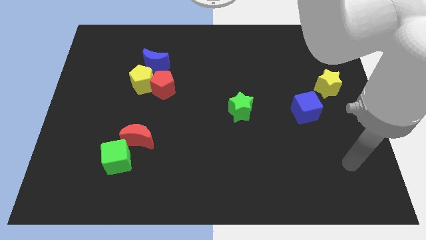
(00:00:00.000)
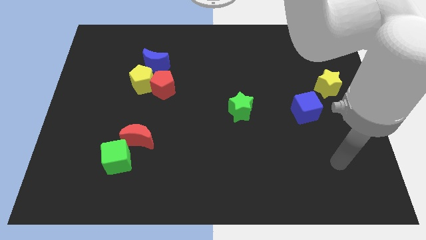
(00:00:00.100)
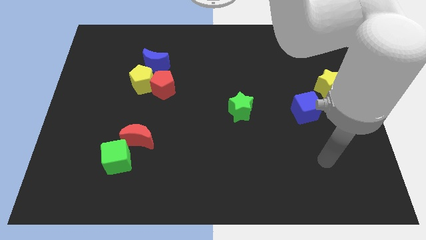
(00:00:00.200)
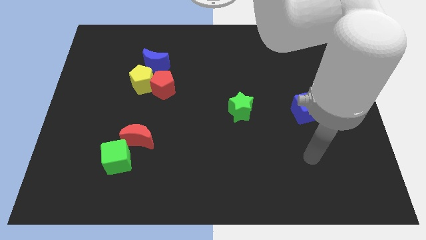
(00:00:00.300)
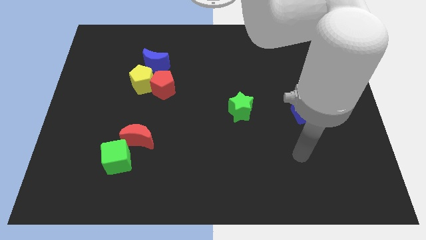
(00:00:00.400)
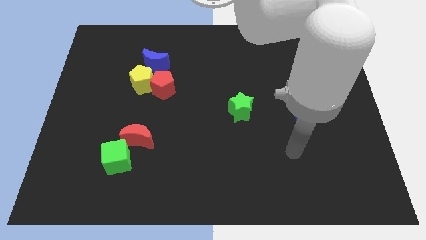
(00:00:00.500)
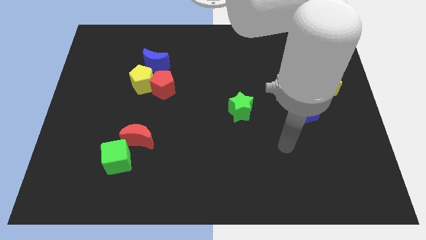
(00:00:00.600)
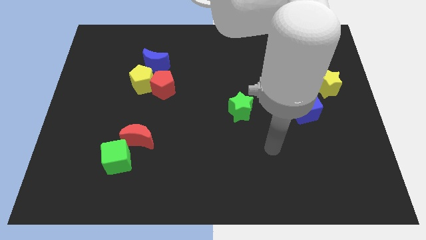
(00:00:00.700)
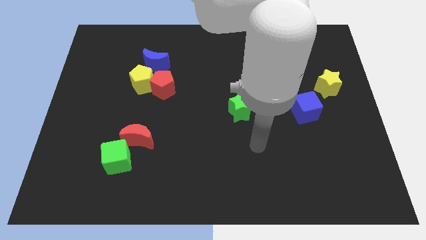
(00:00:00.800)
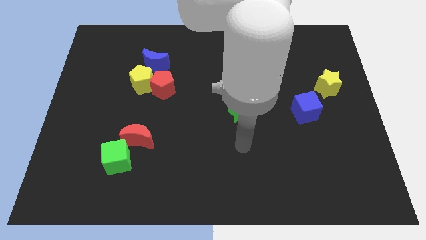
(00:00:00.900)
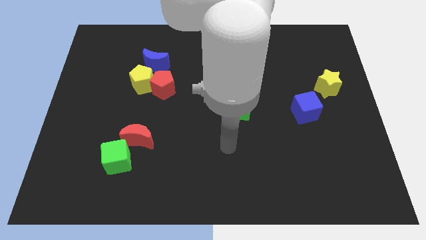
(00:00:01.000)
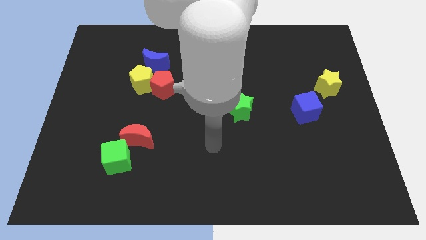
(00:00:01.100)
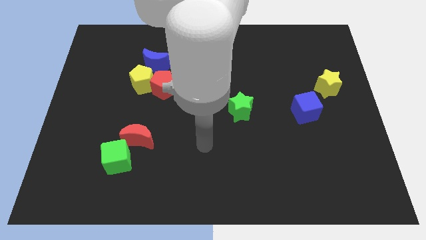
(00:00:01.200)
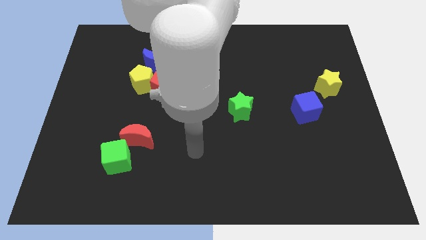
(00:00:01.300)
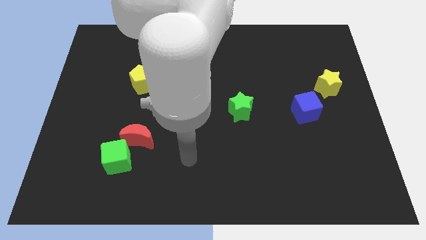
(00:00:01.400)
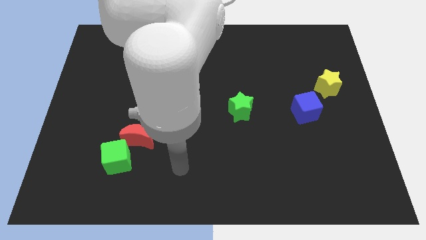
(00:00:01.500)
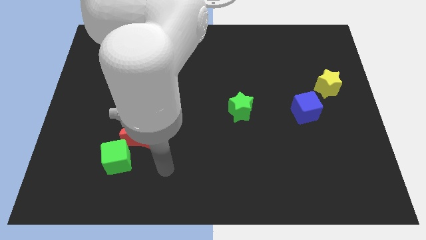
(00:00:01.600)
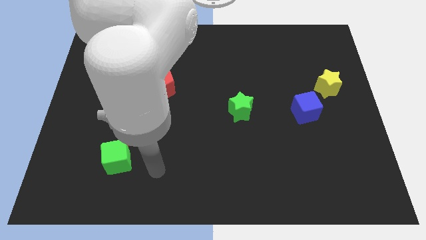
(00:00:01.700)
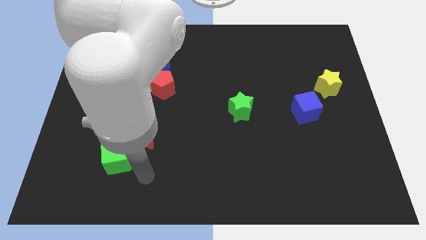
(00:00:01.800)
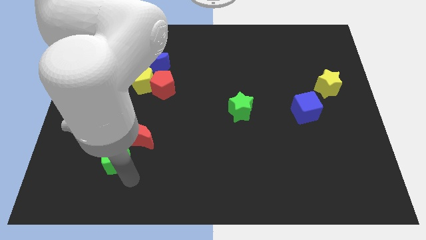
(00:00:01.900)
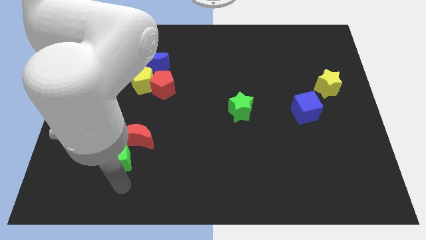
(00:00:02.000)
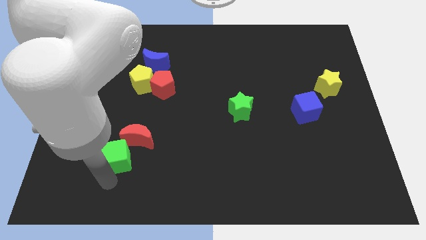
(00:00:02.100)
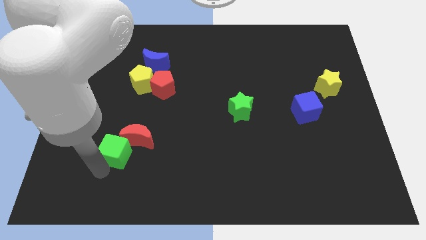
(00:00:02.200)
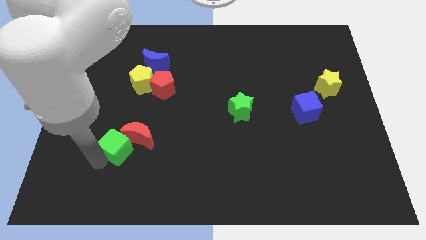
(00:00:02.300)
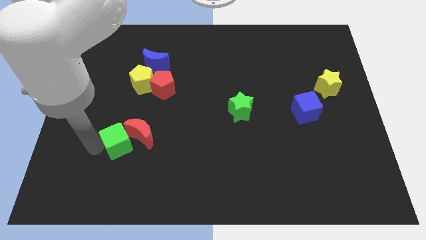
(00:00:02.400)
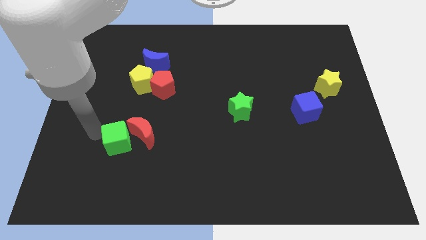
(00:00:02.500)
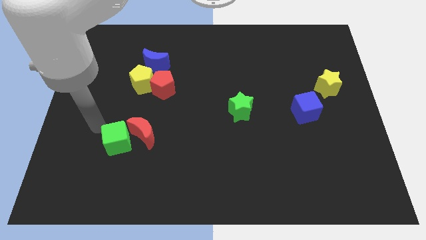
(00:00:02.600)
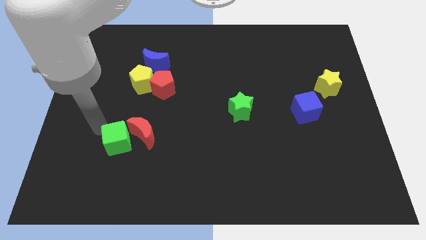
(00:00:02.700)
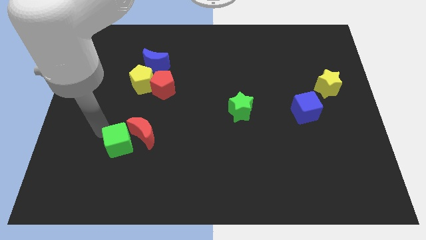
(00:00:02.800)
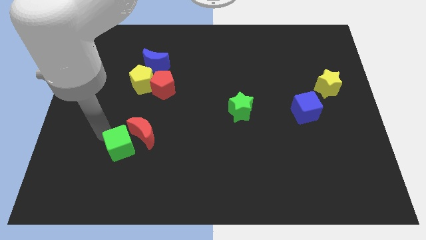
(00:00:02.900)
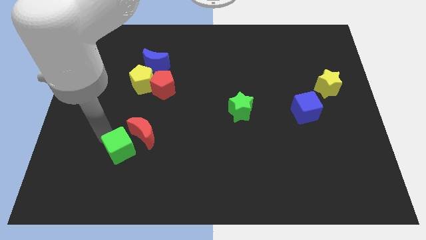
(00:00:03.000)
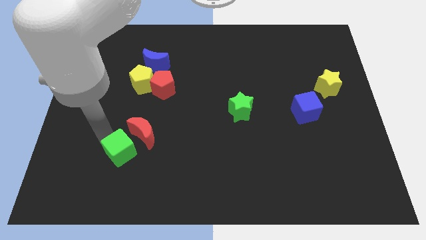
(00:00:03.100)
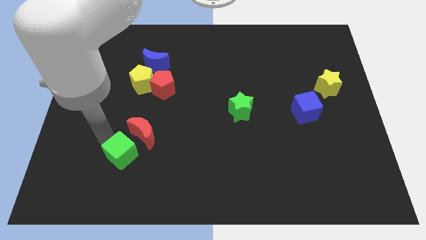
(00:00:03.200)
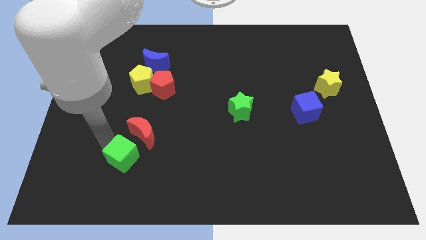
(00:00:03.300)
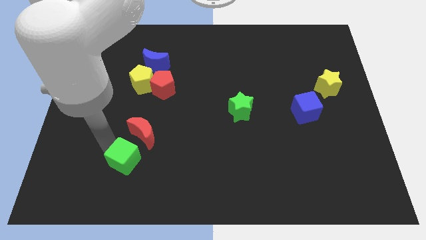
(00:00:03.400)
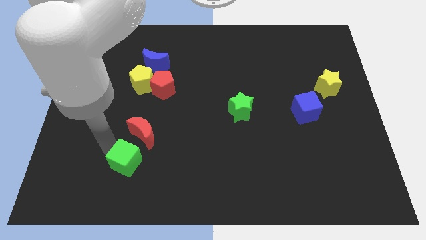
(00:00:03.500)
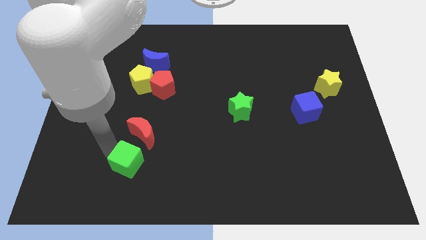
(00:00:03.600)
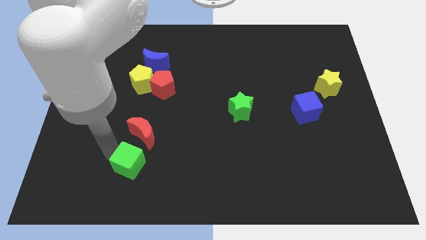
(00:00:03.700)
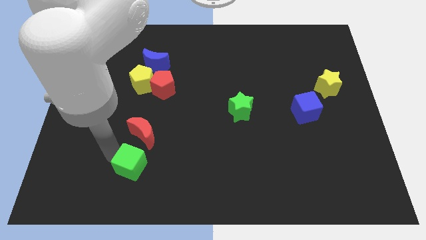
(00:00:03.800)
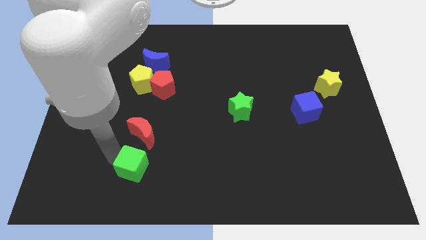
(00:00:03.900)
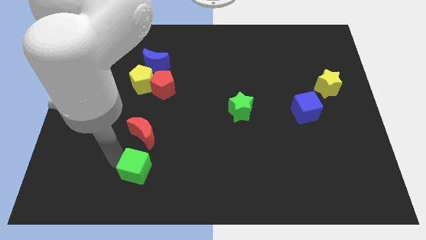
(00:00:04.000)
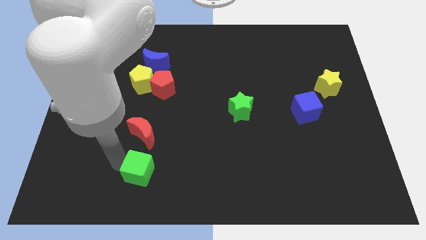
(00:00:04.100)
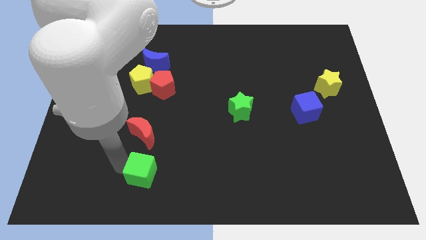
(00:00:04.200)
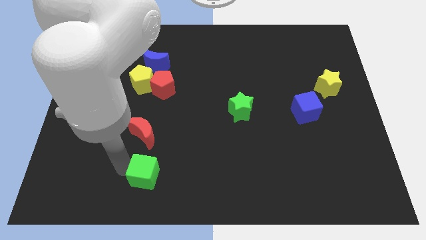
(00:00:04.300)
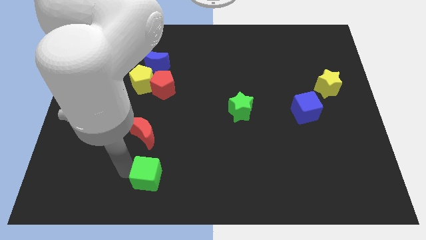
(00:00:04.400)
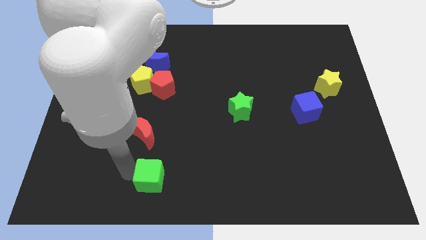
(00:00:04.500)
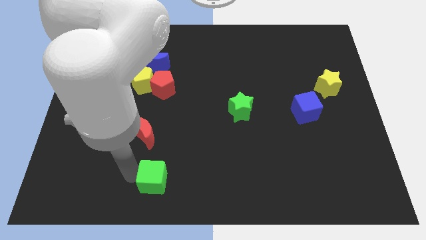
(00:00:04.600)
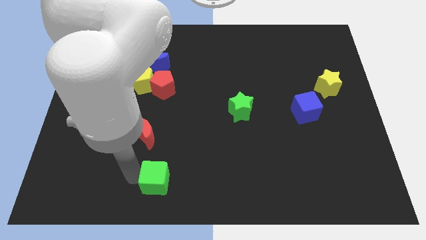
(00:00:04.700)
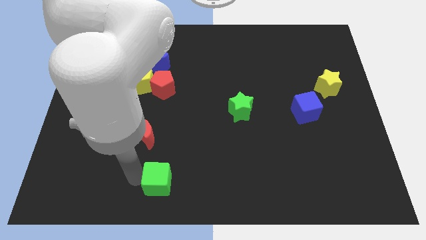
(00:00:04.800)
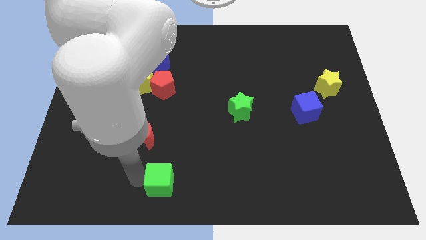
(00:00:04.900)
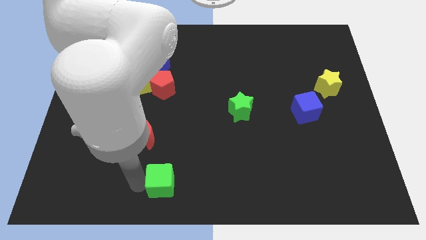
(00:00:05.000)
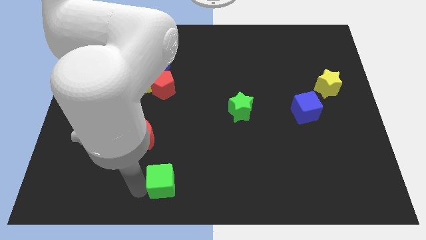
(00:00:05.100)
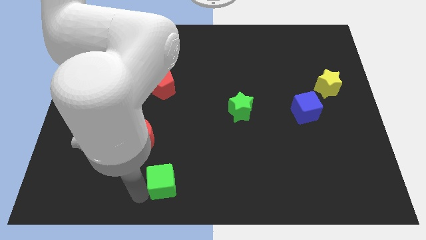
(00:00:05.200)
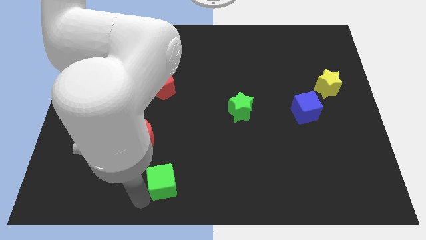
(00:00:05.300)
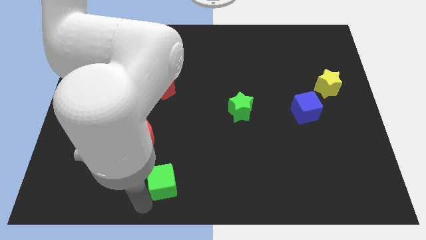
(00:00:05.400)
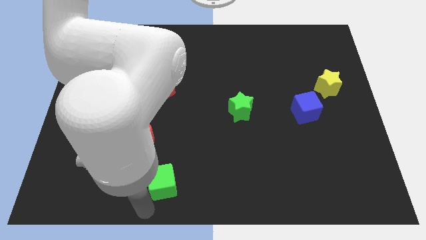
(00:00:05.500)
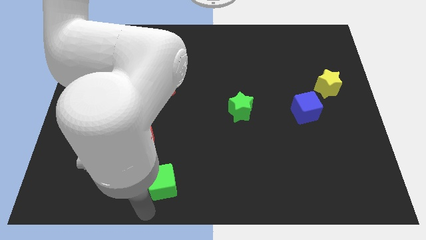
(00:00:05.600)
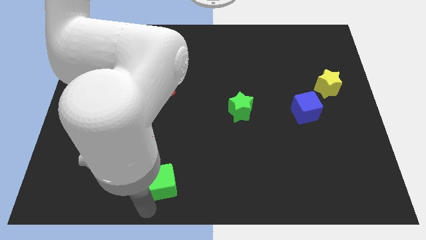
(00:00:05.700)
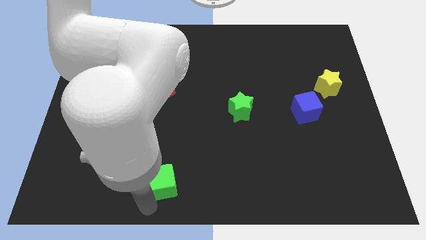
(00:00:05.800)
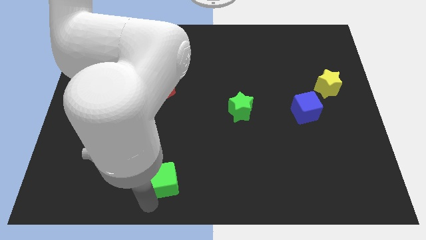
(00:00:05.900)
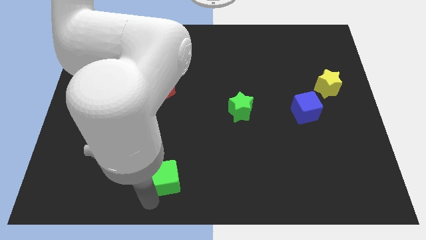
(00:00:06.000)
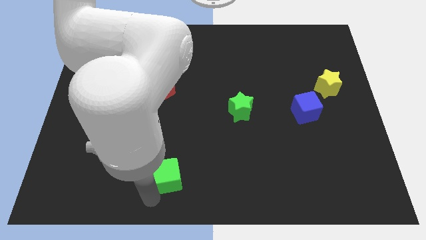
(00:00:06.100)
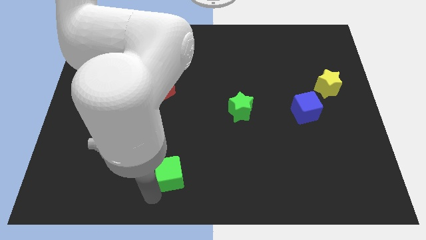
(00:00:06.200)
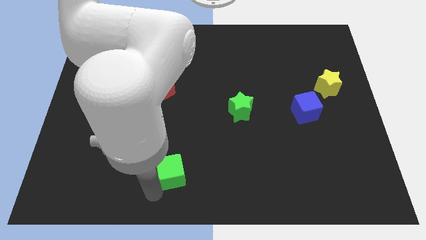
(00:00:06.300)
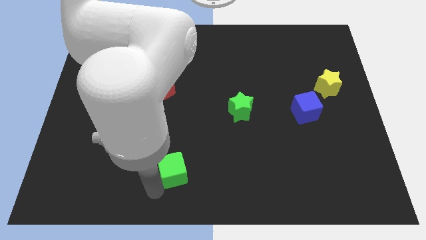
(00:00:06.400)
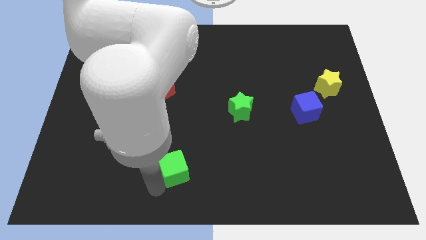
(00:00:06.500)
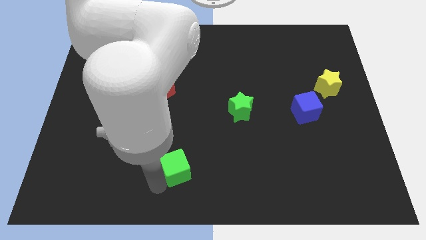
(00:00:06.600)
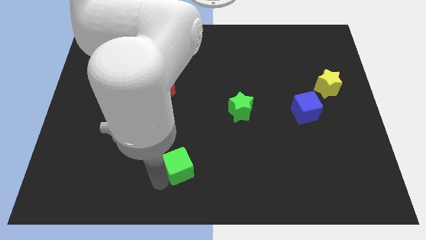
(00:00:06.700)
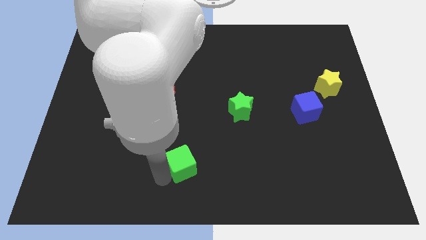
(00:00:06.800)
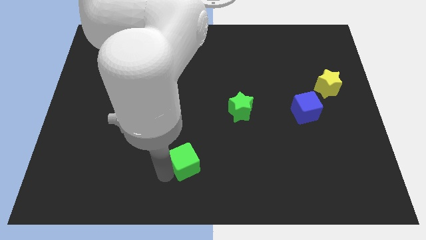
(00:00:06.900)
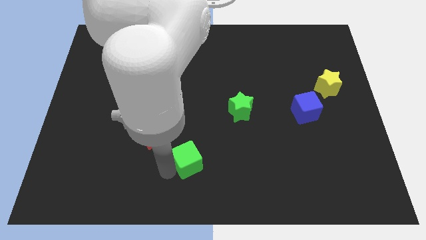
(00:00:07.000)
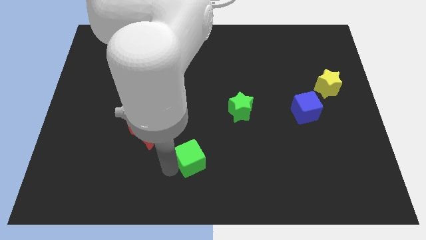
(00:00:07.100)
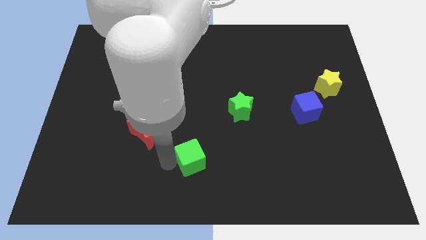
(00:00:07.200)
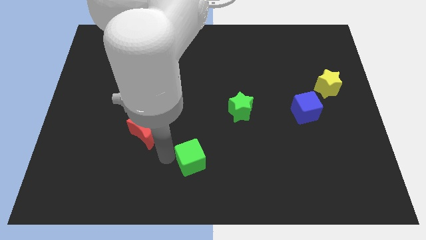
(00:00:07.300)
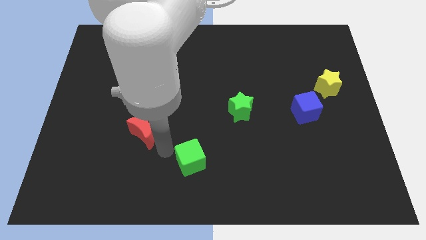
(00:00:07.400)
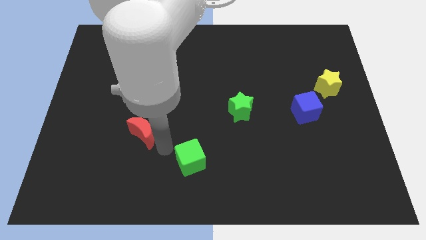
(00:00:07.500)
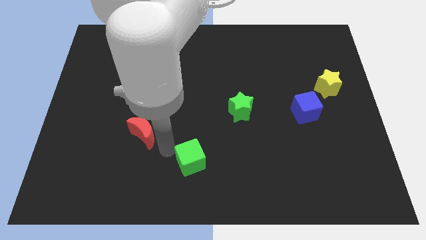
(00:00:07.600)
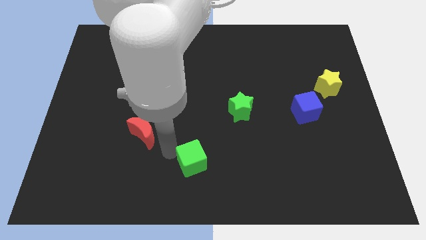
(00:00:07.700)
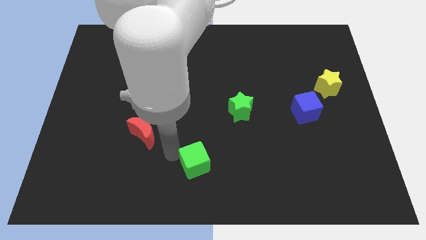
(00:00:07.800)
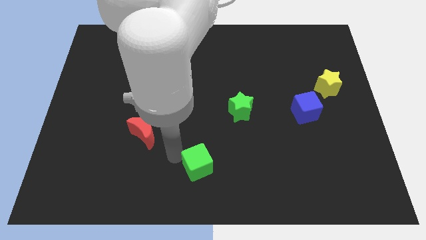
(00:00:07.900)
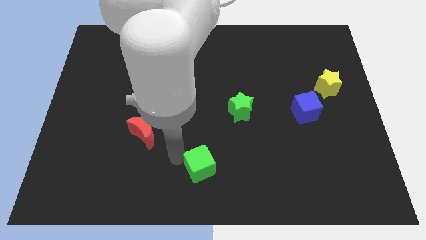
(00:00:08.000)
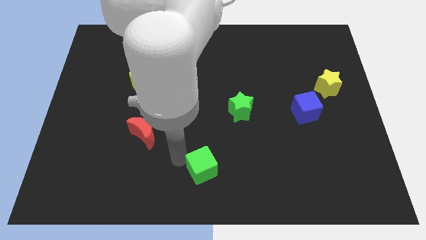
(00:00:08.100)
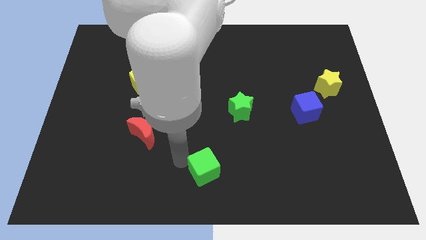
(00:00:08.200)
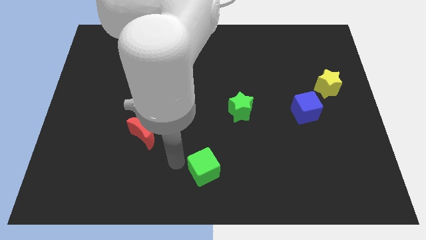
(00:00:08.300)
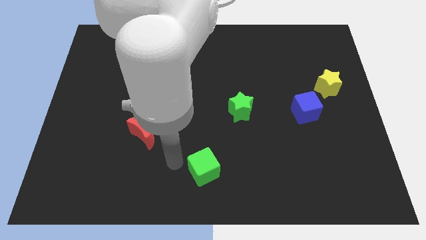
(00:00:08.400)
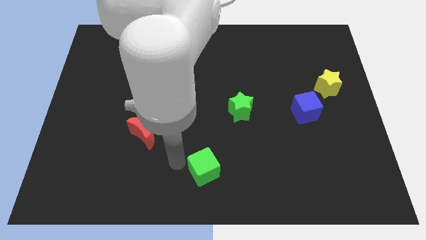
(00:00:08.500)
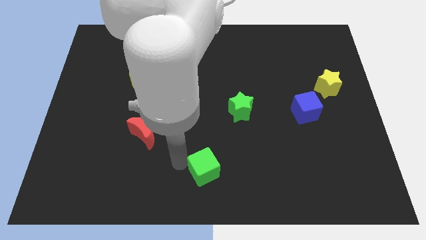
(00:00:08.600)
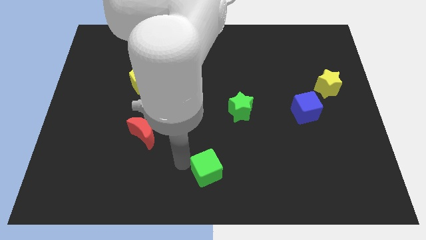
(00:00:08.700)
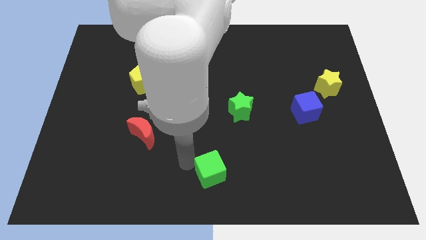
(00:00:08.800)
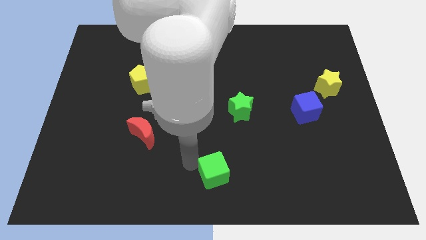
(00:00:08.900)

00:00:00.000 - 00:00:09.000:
slide the green cube to the right
